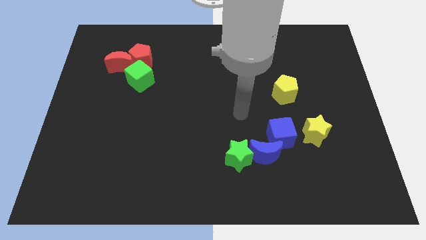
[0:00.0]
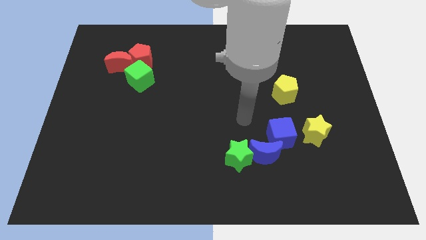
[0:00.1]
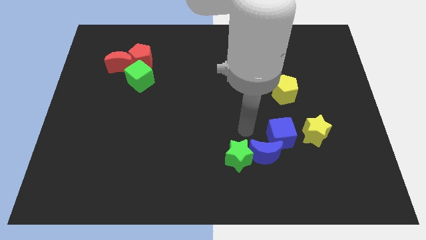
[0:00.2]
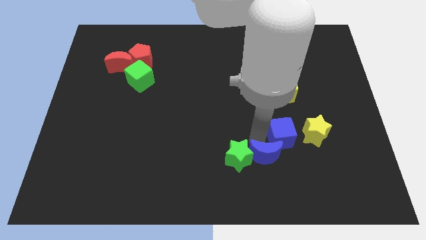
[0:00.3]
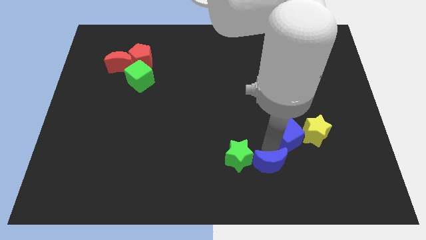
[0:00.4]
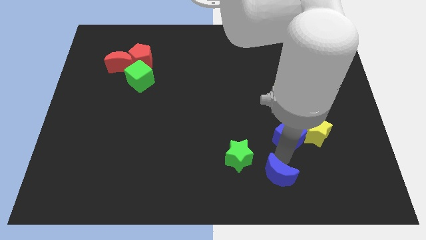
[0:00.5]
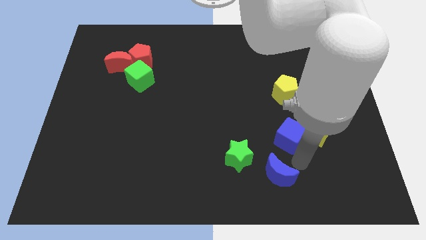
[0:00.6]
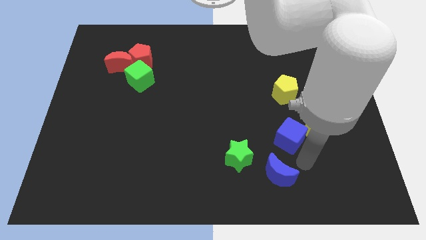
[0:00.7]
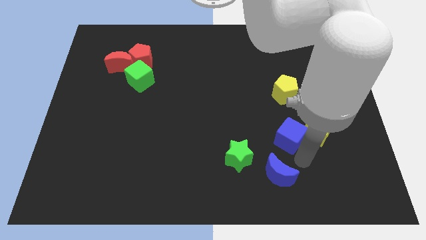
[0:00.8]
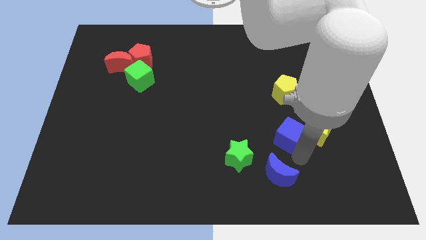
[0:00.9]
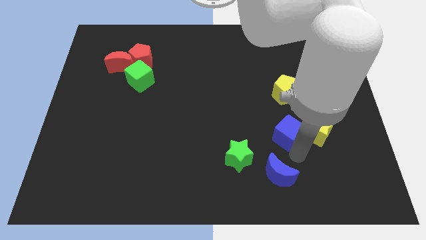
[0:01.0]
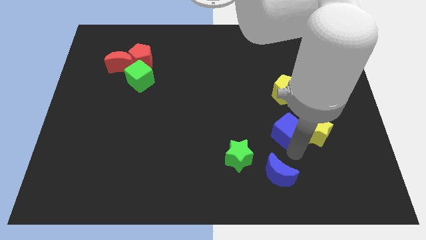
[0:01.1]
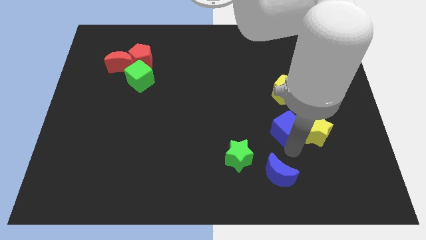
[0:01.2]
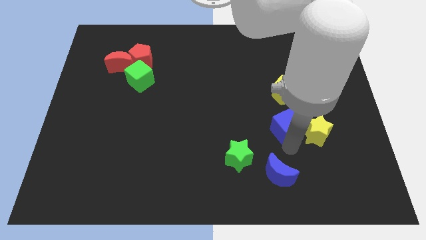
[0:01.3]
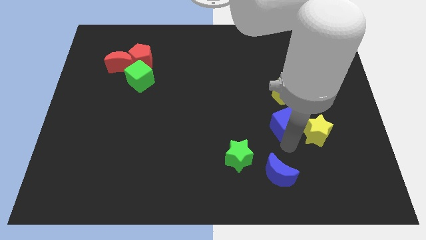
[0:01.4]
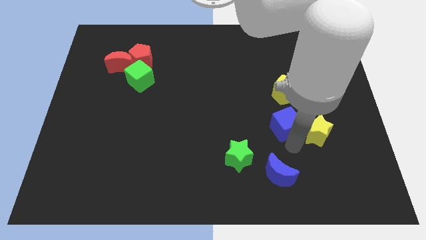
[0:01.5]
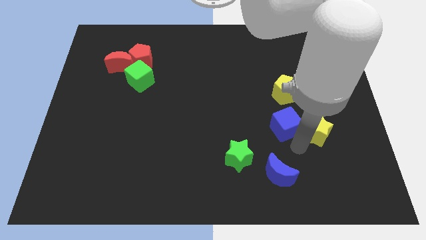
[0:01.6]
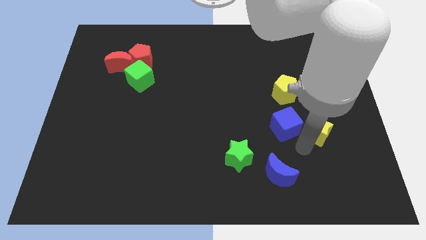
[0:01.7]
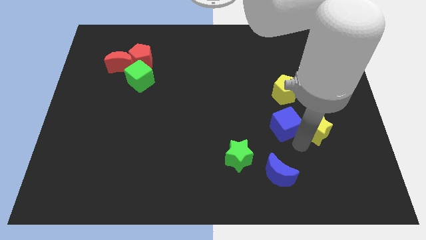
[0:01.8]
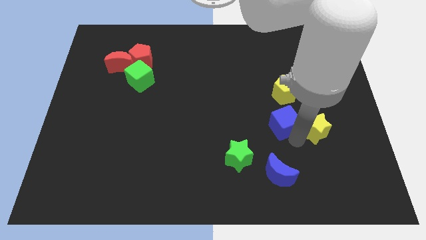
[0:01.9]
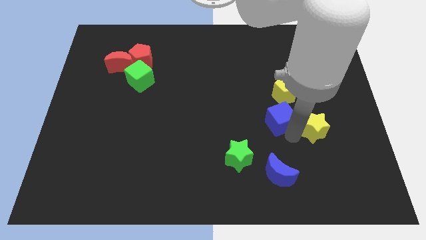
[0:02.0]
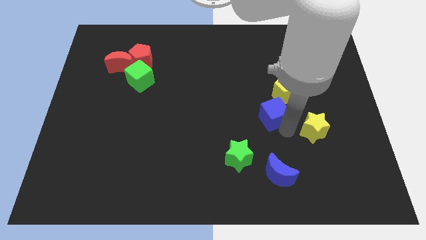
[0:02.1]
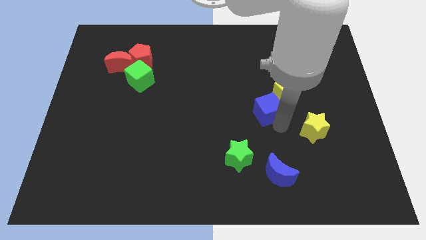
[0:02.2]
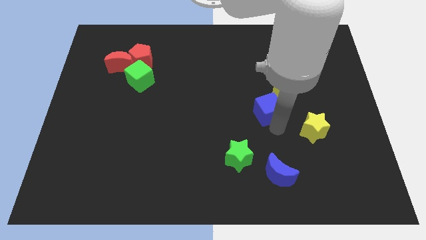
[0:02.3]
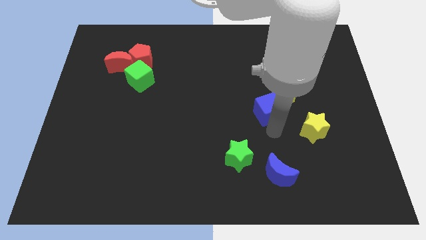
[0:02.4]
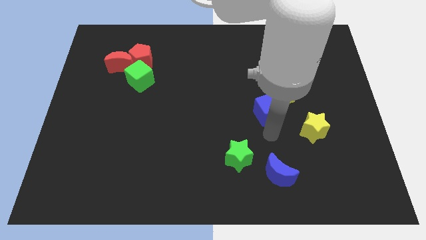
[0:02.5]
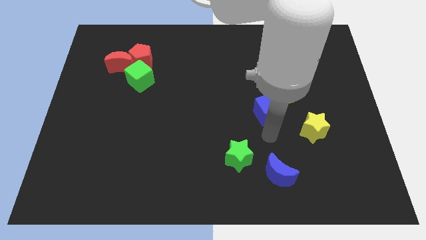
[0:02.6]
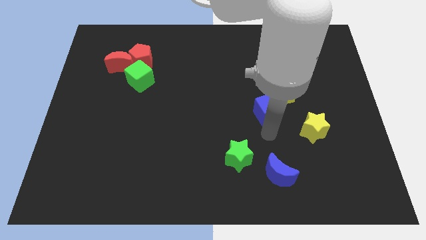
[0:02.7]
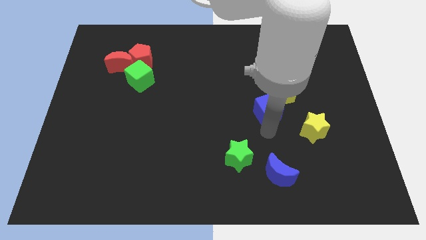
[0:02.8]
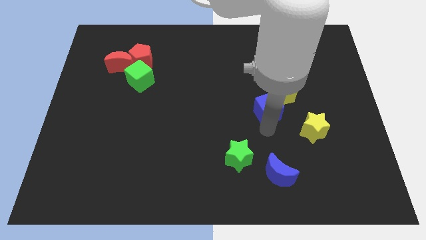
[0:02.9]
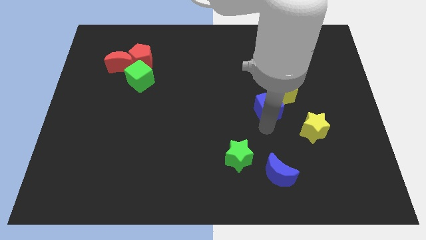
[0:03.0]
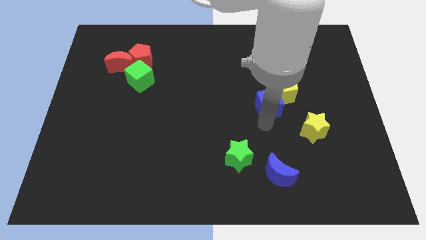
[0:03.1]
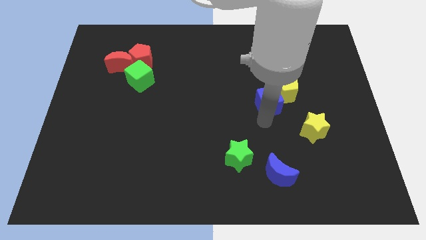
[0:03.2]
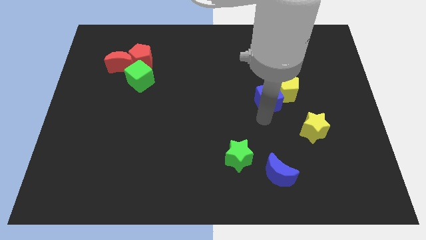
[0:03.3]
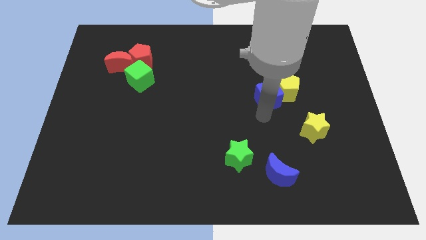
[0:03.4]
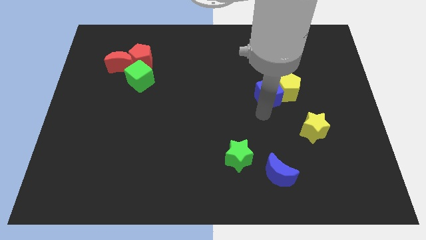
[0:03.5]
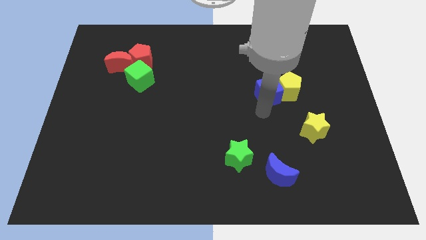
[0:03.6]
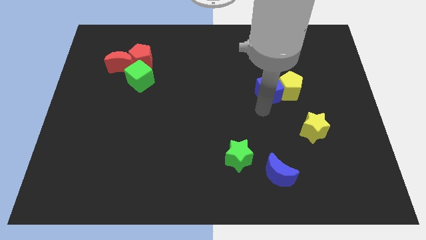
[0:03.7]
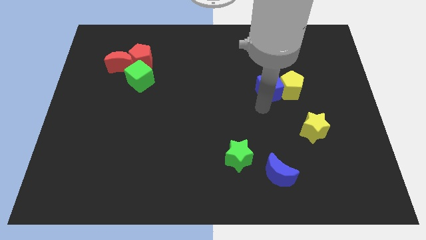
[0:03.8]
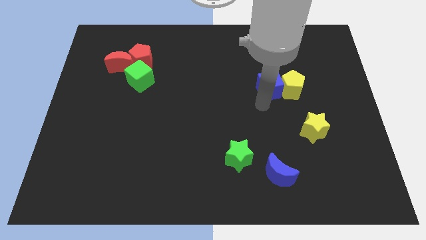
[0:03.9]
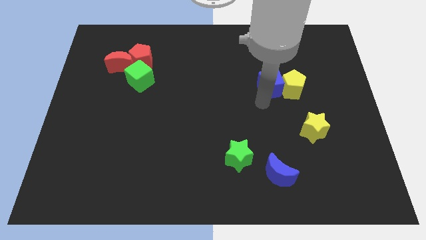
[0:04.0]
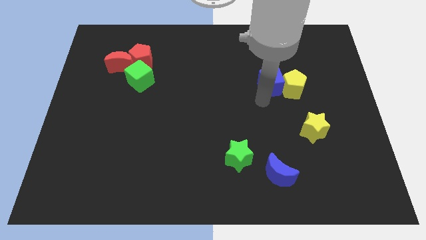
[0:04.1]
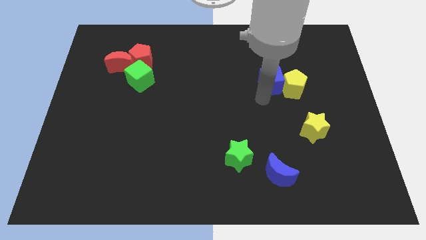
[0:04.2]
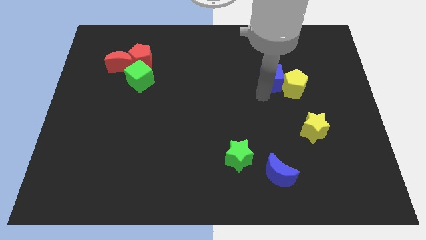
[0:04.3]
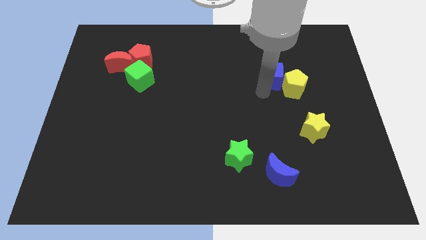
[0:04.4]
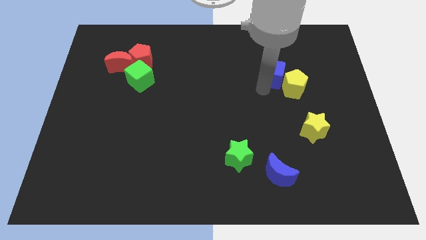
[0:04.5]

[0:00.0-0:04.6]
move the blue cube above the yellow pentagon

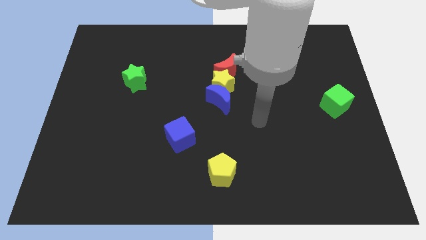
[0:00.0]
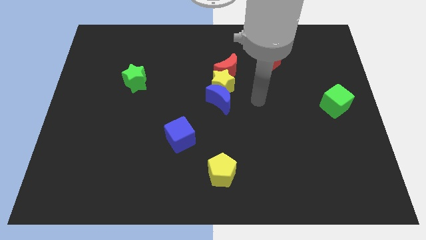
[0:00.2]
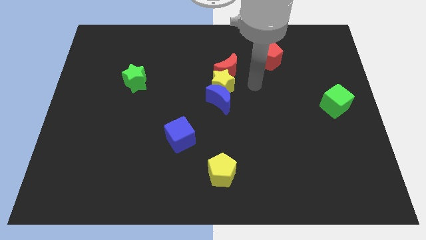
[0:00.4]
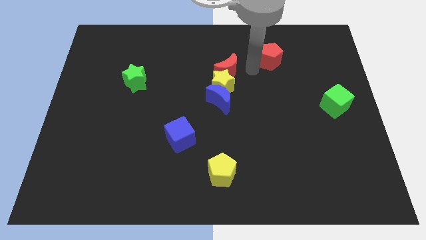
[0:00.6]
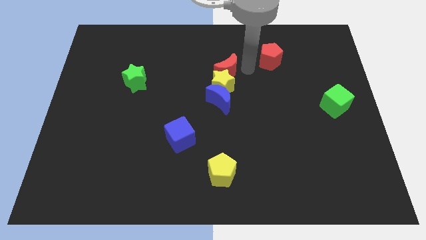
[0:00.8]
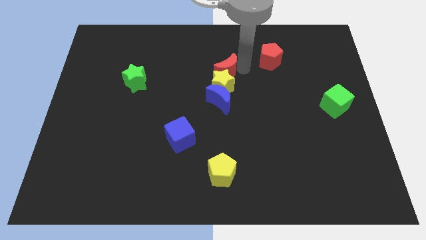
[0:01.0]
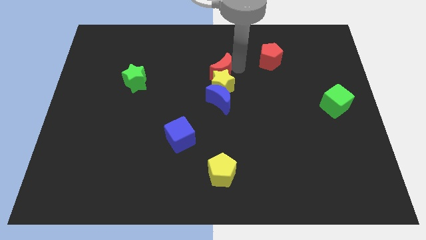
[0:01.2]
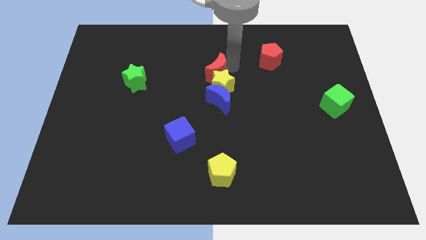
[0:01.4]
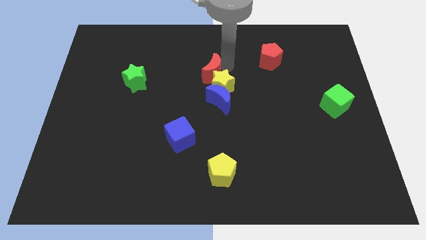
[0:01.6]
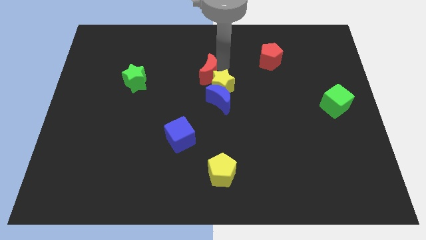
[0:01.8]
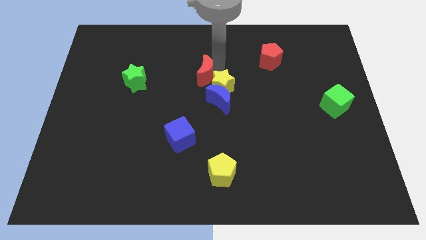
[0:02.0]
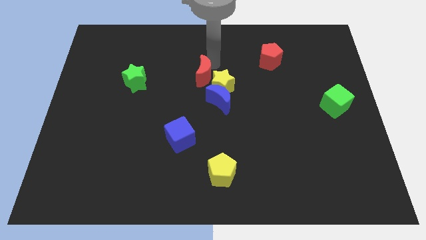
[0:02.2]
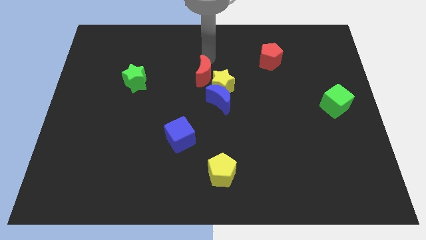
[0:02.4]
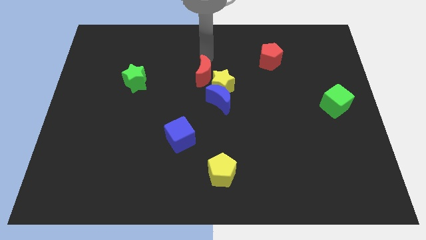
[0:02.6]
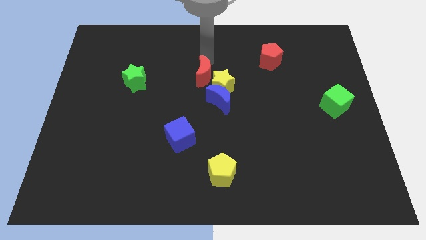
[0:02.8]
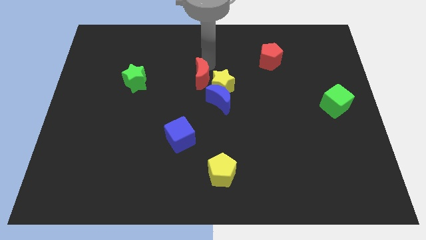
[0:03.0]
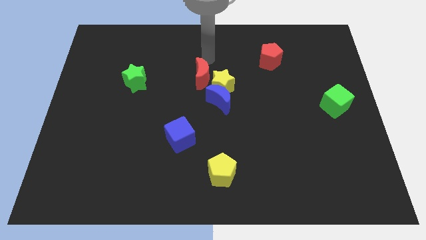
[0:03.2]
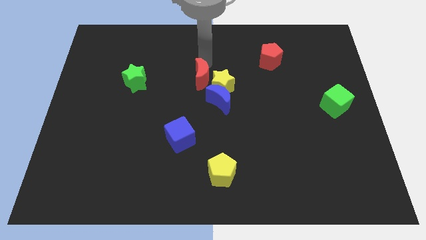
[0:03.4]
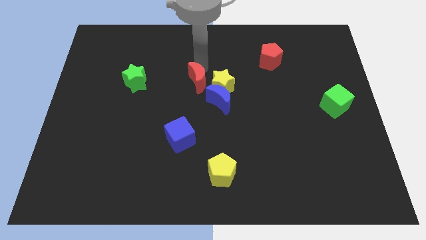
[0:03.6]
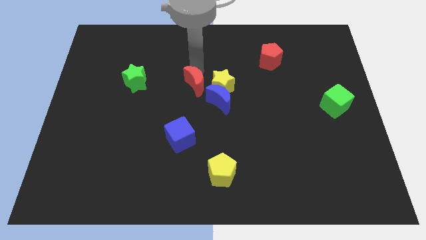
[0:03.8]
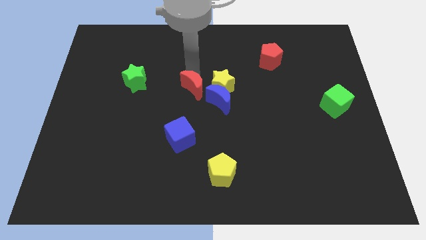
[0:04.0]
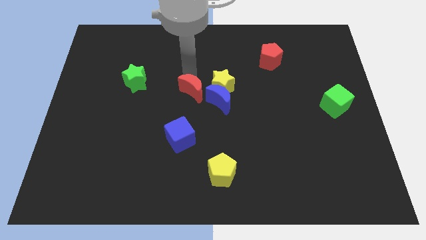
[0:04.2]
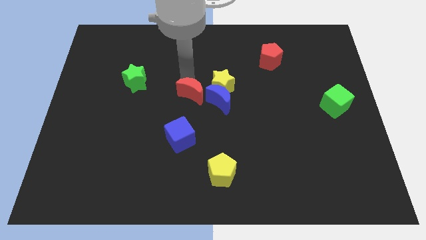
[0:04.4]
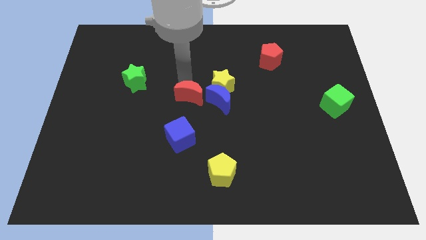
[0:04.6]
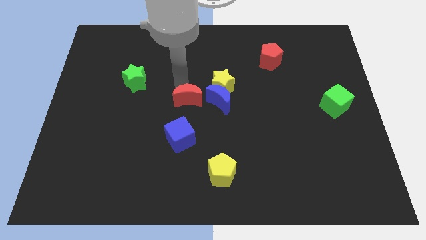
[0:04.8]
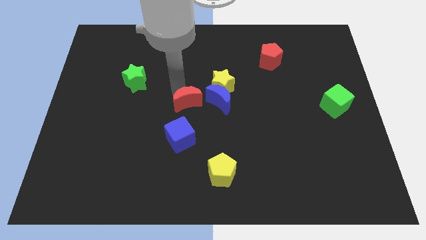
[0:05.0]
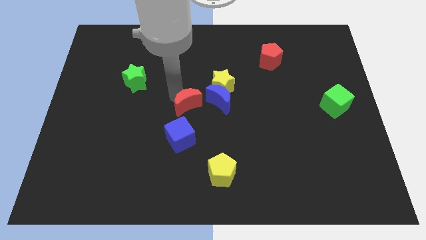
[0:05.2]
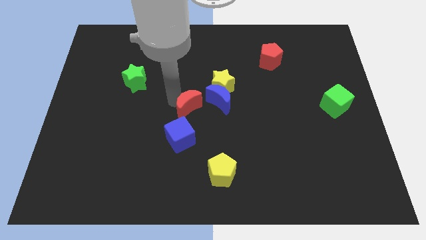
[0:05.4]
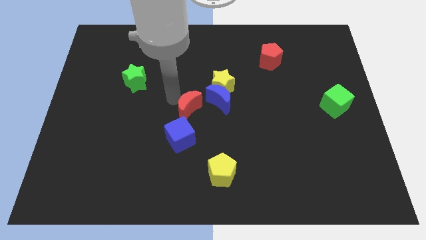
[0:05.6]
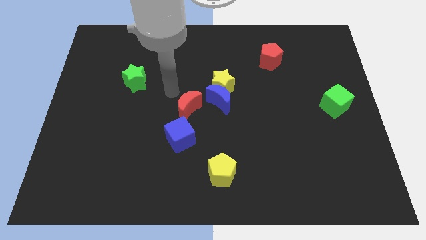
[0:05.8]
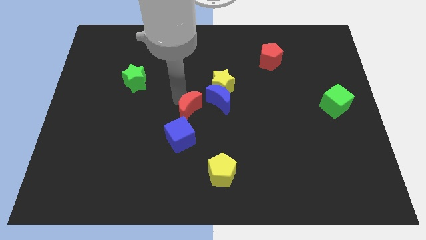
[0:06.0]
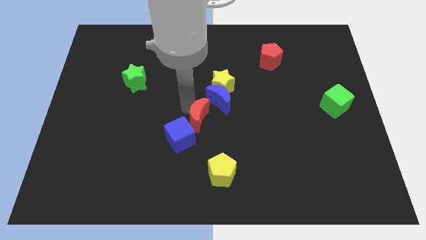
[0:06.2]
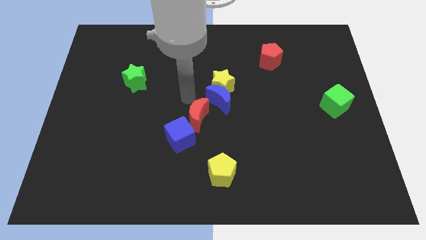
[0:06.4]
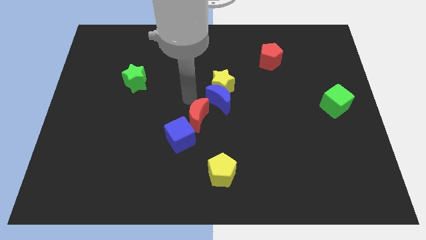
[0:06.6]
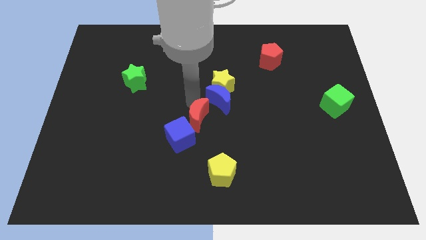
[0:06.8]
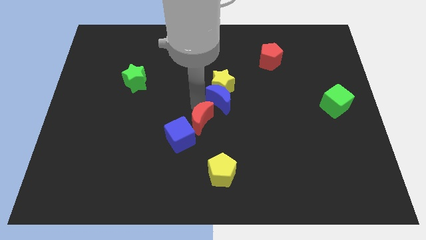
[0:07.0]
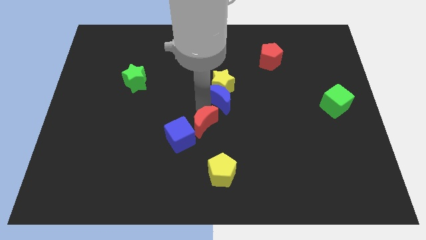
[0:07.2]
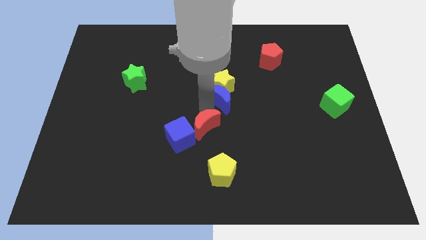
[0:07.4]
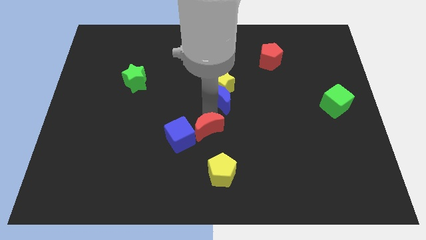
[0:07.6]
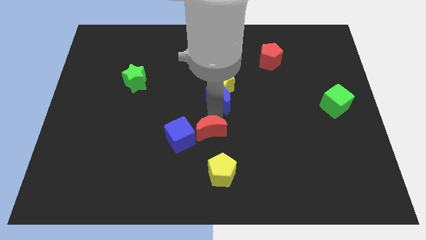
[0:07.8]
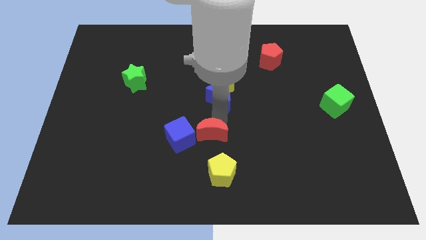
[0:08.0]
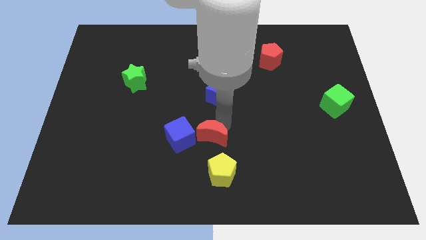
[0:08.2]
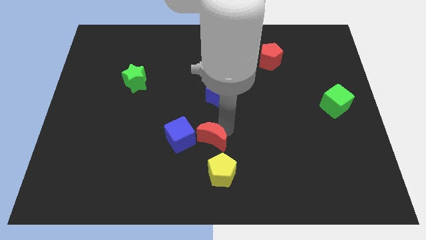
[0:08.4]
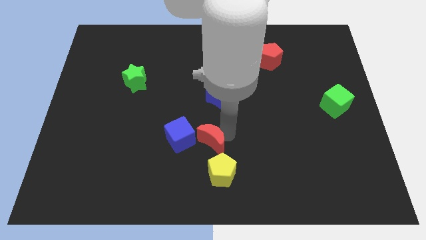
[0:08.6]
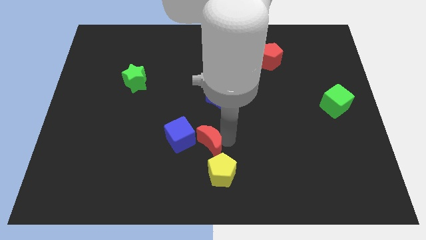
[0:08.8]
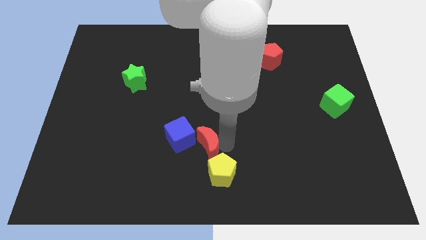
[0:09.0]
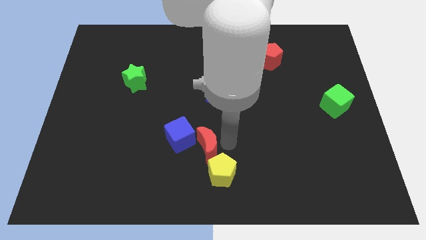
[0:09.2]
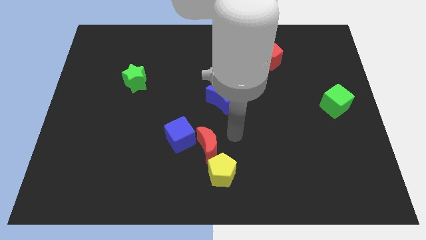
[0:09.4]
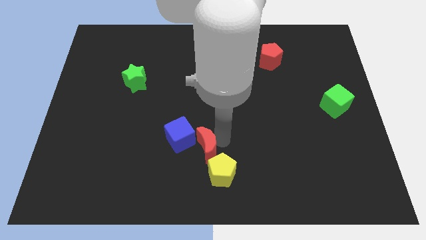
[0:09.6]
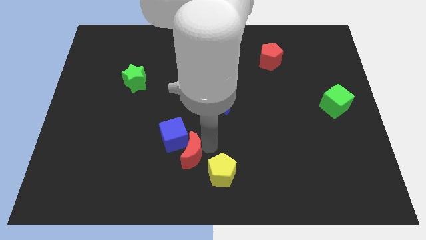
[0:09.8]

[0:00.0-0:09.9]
move the red moon just left of the yellow pentagon
